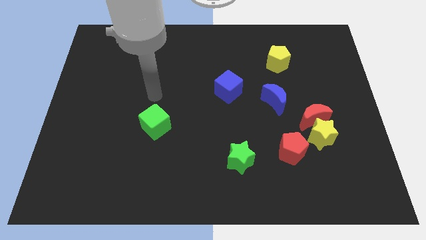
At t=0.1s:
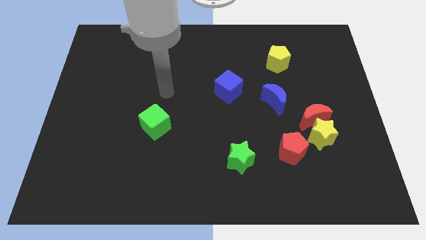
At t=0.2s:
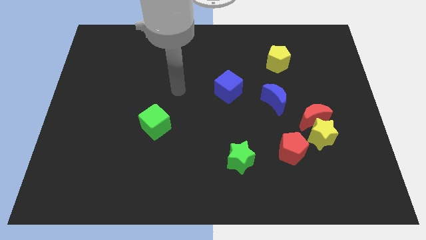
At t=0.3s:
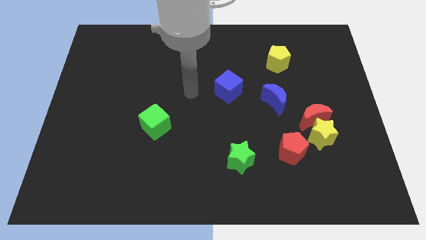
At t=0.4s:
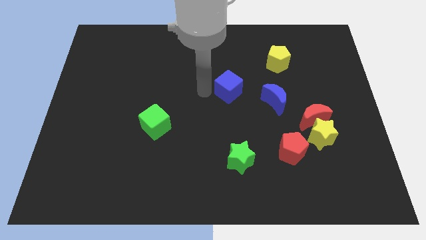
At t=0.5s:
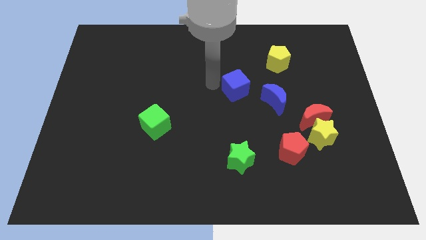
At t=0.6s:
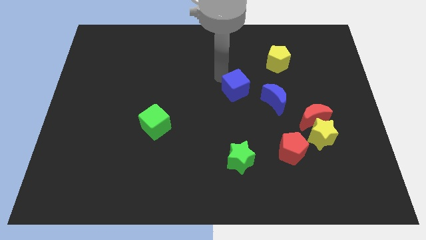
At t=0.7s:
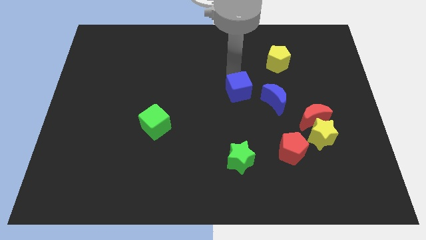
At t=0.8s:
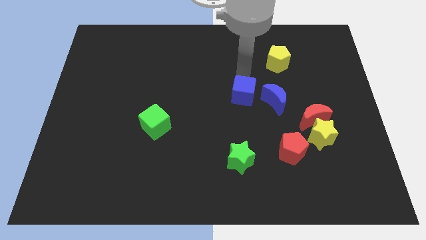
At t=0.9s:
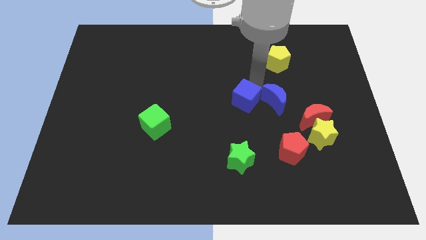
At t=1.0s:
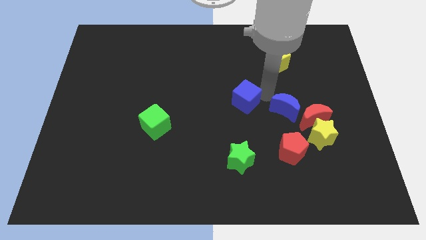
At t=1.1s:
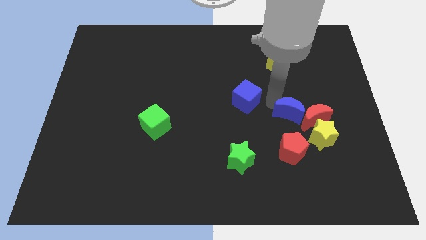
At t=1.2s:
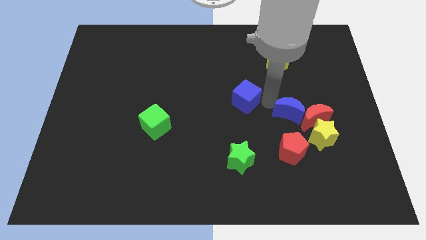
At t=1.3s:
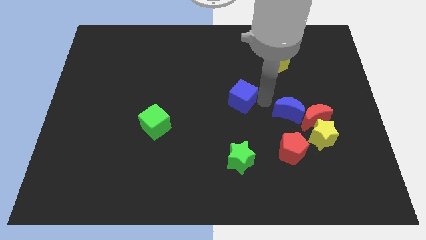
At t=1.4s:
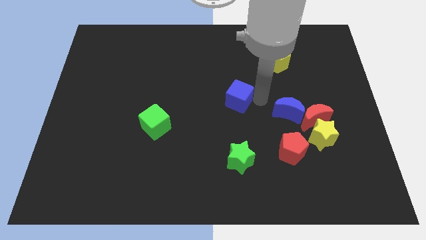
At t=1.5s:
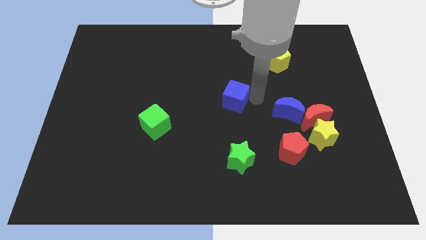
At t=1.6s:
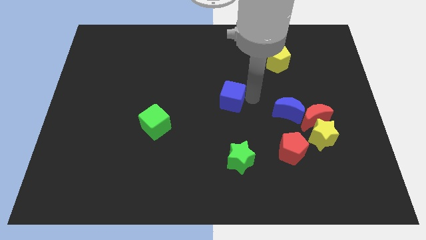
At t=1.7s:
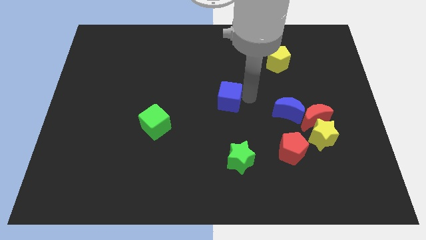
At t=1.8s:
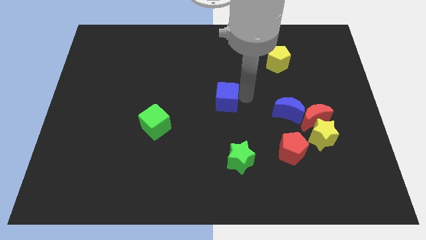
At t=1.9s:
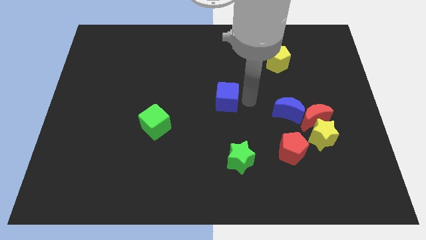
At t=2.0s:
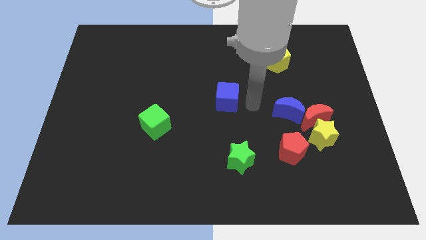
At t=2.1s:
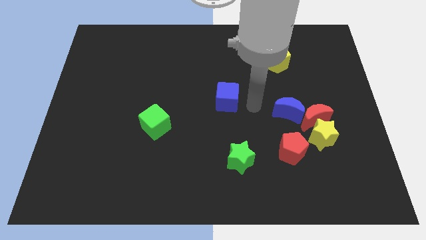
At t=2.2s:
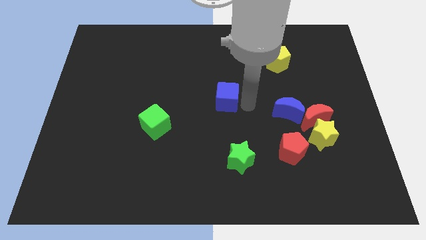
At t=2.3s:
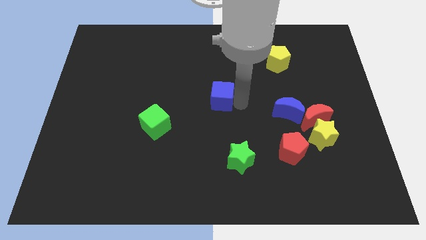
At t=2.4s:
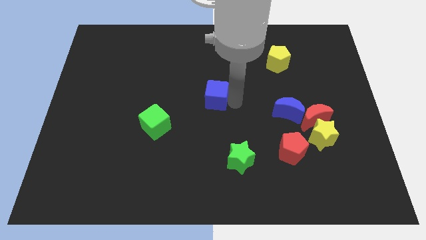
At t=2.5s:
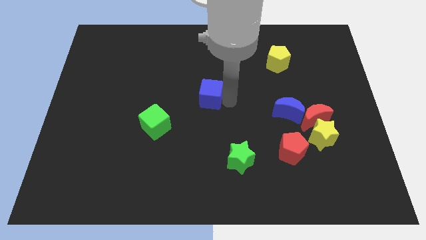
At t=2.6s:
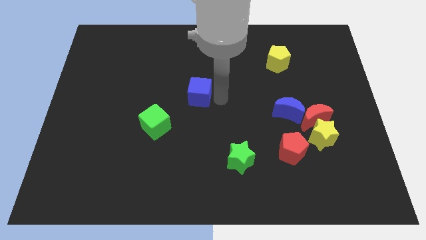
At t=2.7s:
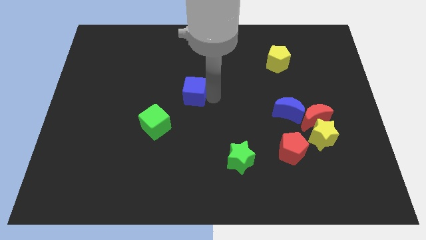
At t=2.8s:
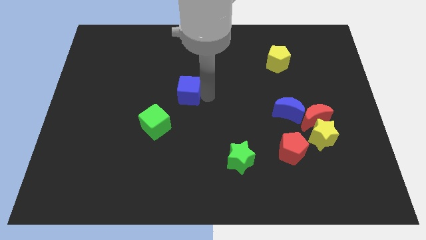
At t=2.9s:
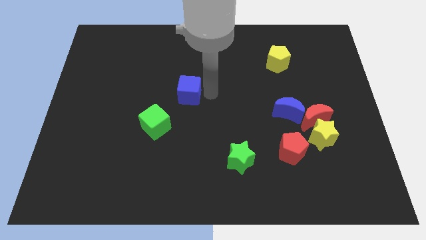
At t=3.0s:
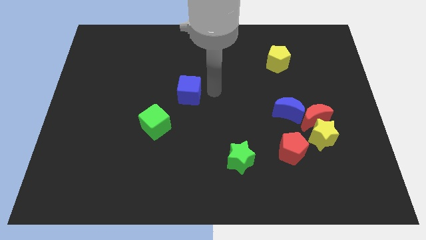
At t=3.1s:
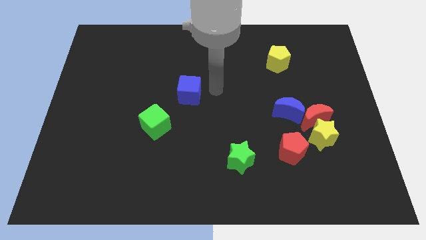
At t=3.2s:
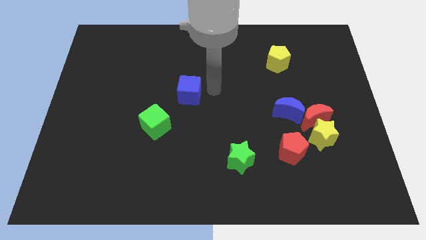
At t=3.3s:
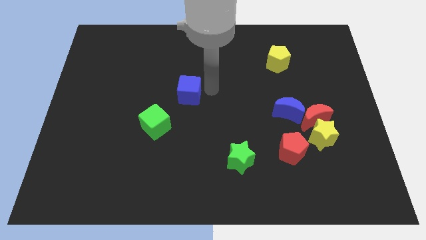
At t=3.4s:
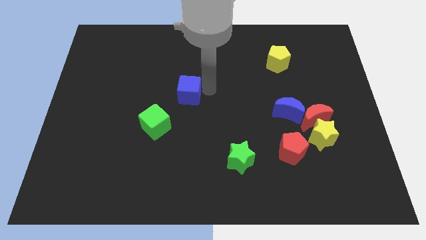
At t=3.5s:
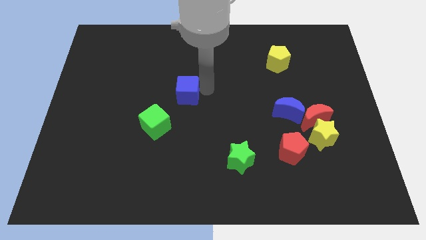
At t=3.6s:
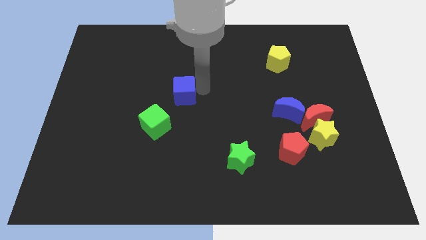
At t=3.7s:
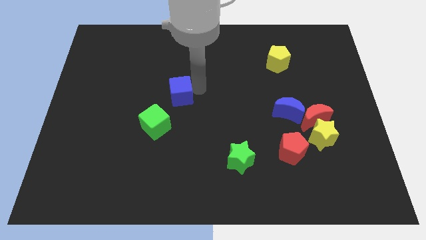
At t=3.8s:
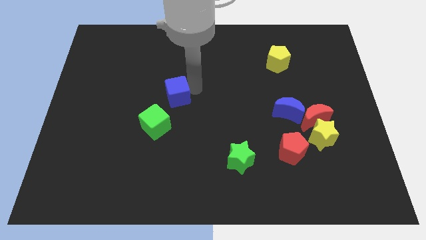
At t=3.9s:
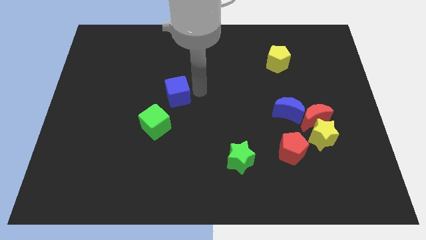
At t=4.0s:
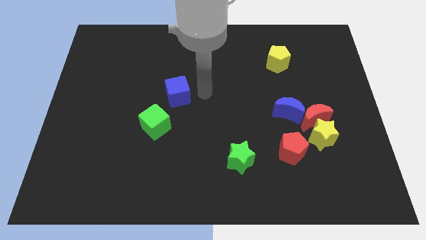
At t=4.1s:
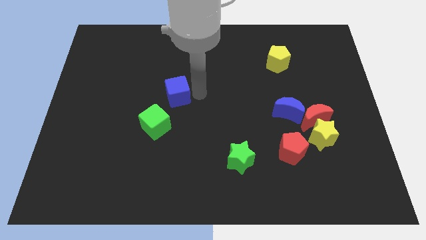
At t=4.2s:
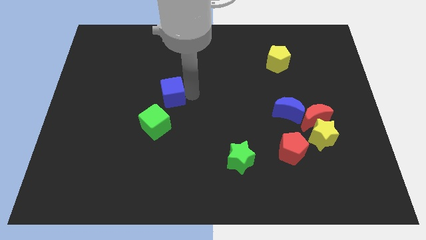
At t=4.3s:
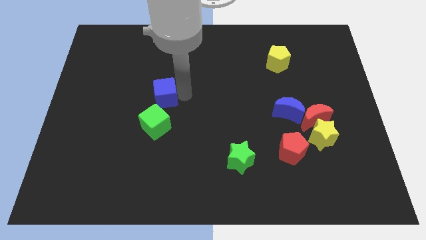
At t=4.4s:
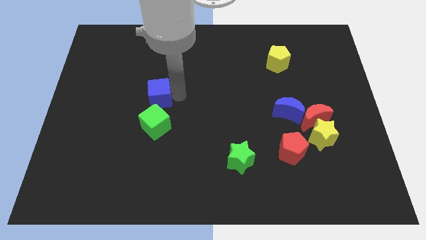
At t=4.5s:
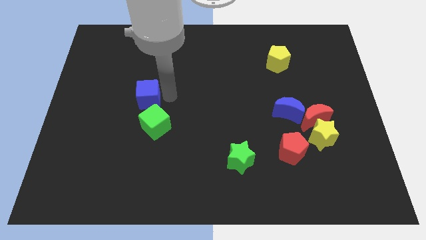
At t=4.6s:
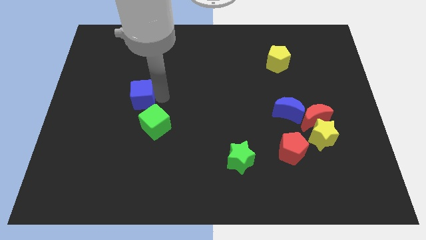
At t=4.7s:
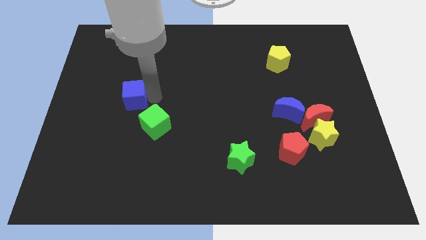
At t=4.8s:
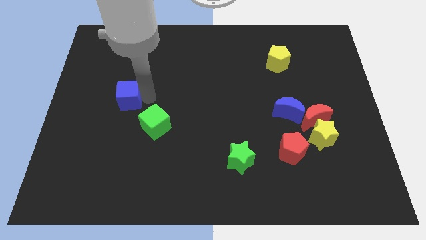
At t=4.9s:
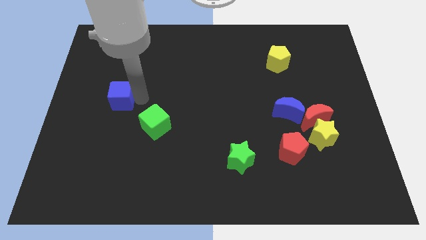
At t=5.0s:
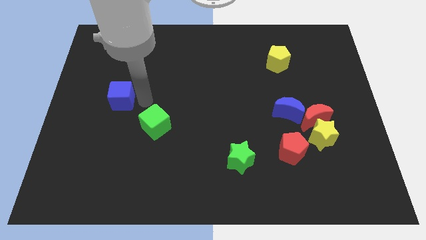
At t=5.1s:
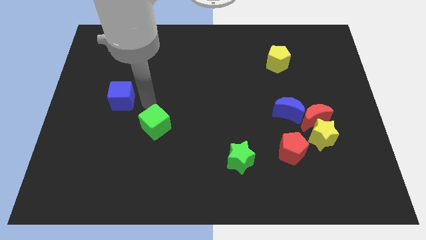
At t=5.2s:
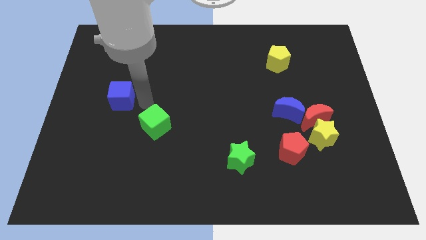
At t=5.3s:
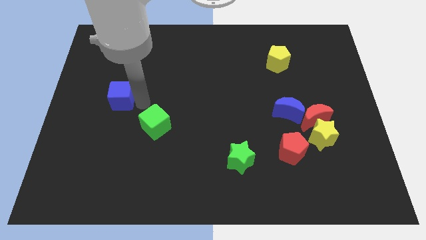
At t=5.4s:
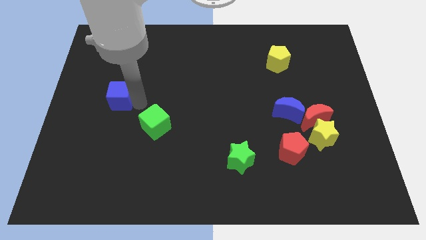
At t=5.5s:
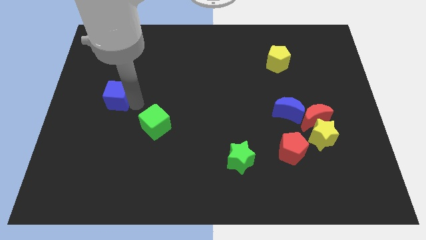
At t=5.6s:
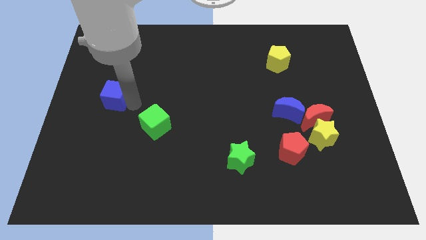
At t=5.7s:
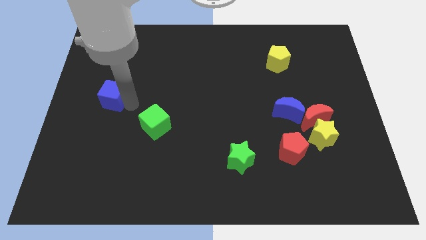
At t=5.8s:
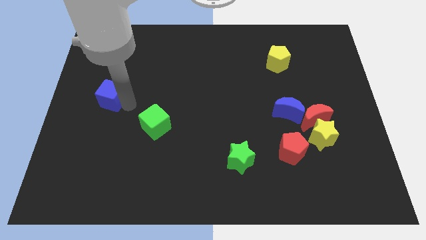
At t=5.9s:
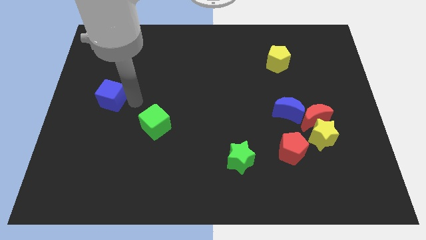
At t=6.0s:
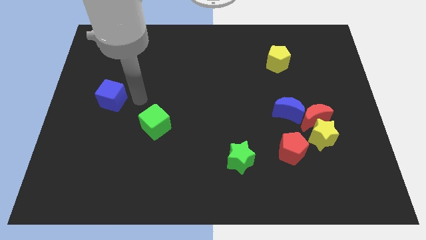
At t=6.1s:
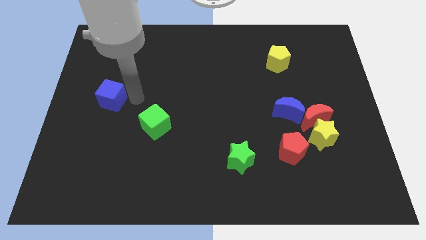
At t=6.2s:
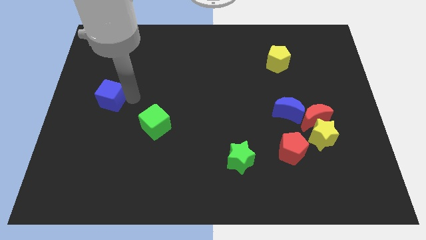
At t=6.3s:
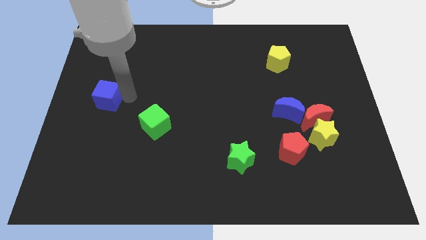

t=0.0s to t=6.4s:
slide the blue cube to the center left
